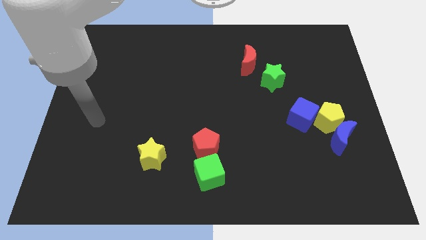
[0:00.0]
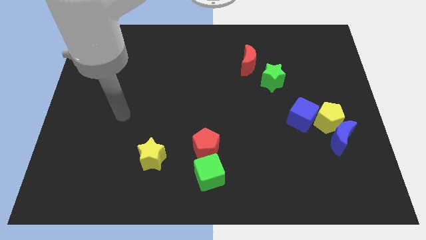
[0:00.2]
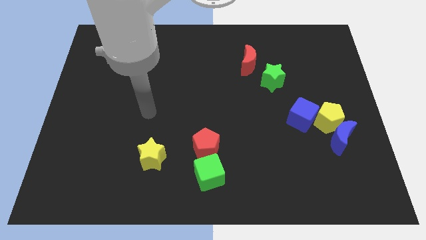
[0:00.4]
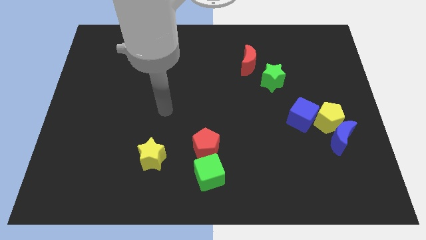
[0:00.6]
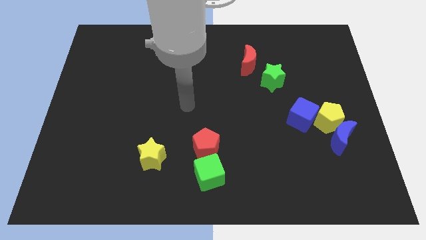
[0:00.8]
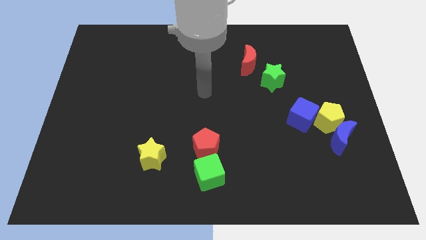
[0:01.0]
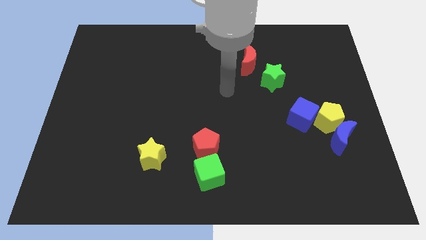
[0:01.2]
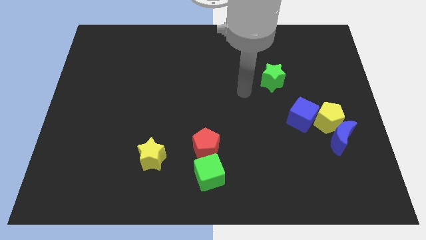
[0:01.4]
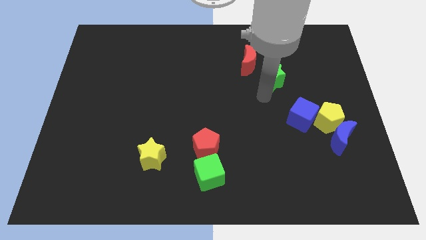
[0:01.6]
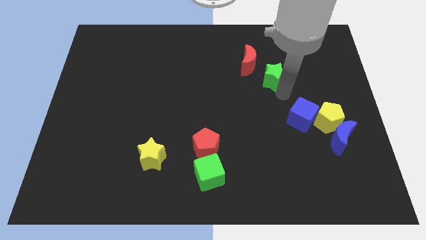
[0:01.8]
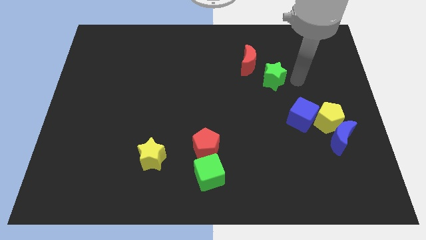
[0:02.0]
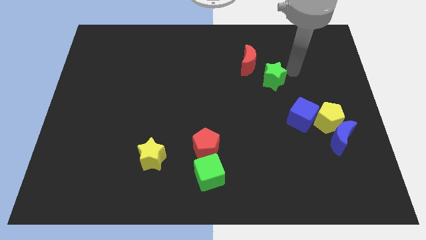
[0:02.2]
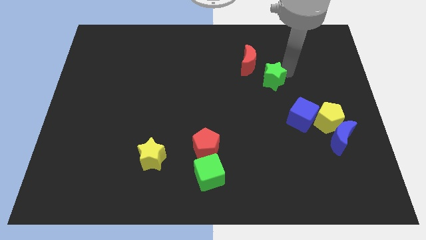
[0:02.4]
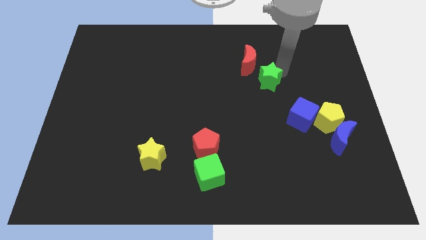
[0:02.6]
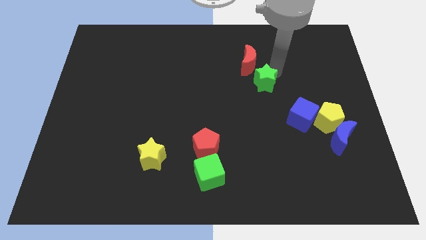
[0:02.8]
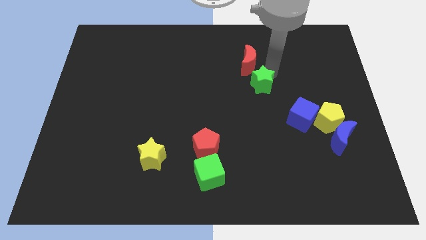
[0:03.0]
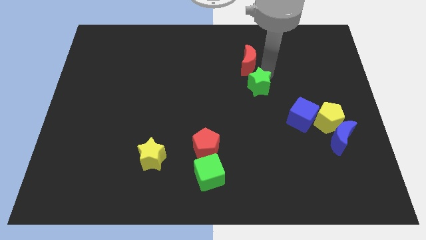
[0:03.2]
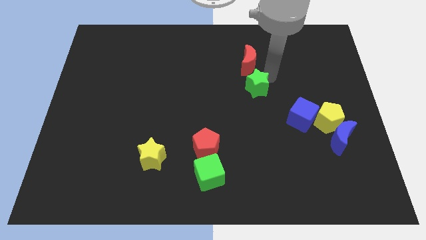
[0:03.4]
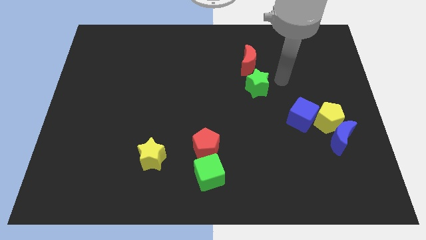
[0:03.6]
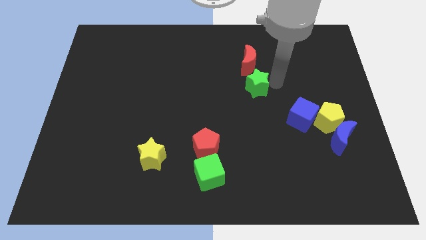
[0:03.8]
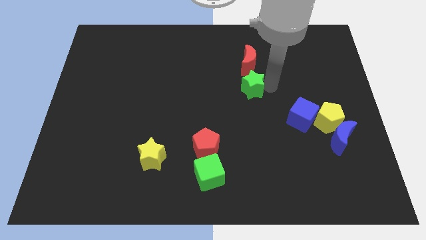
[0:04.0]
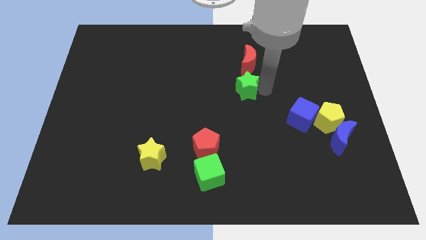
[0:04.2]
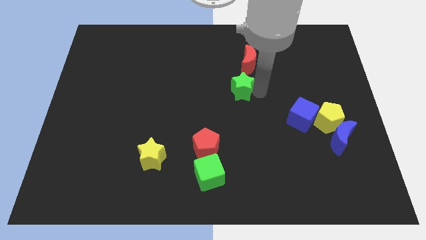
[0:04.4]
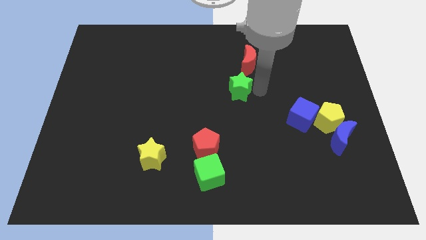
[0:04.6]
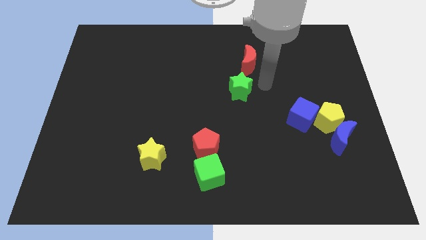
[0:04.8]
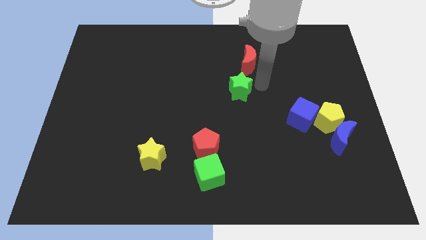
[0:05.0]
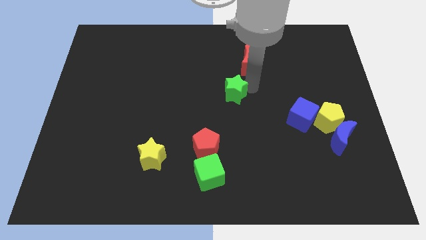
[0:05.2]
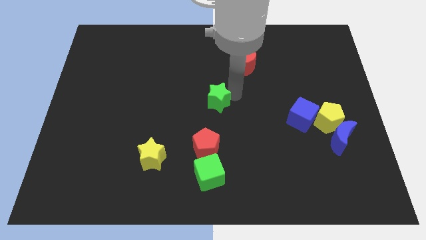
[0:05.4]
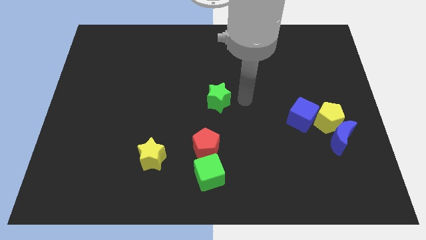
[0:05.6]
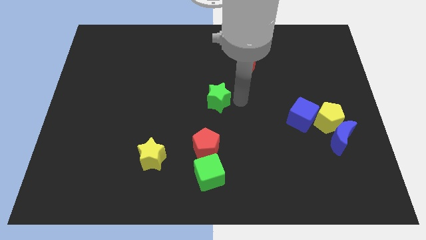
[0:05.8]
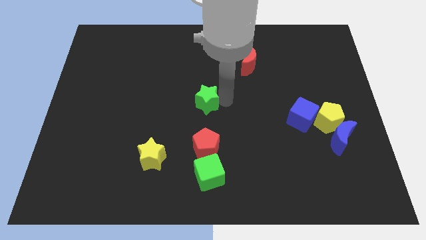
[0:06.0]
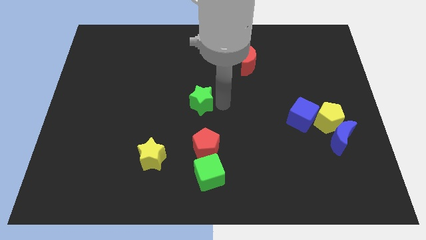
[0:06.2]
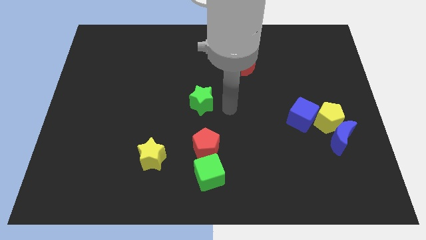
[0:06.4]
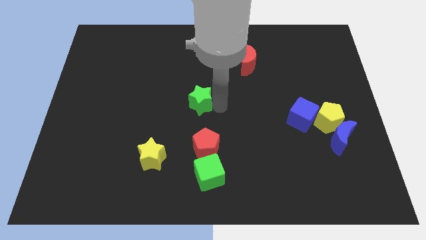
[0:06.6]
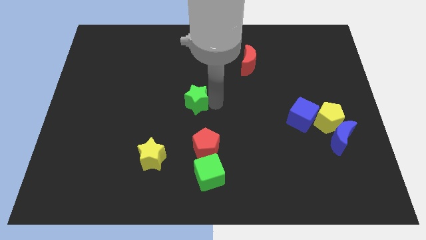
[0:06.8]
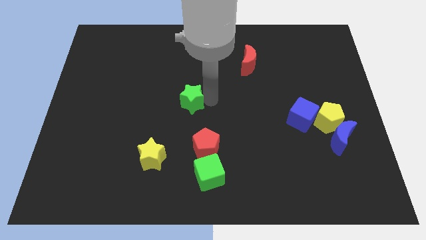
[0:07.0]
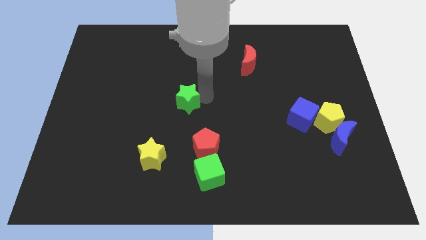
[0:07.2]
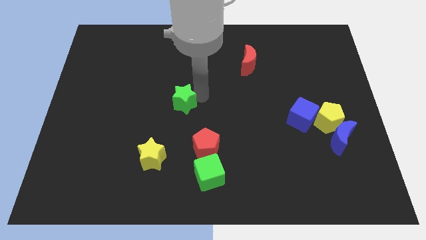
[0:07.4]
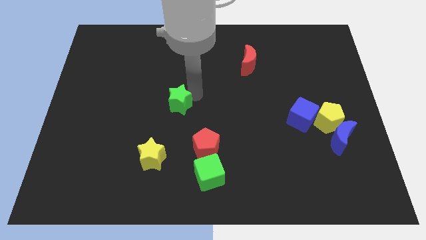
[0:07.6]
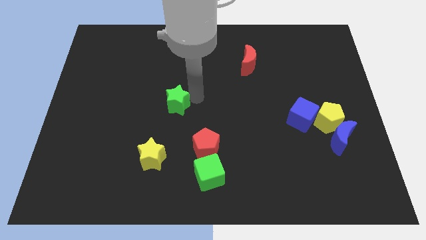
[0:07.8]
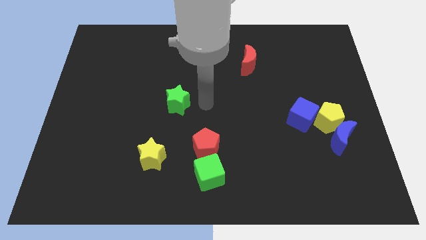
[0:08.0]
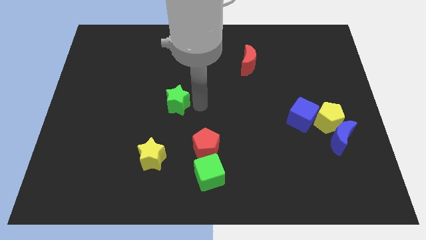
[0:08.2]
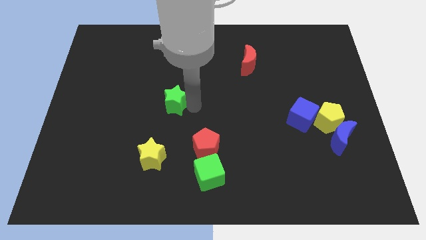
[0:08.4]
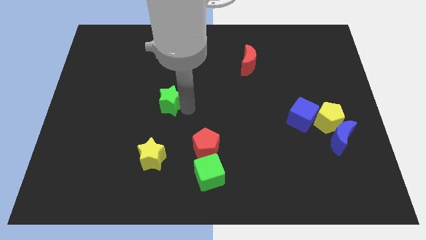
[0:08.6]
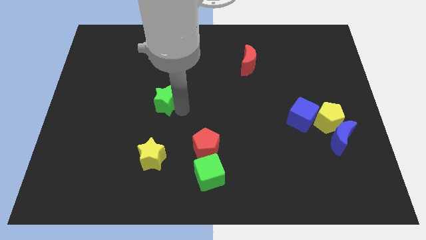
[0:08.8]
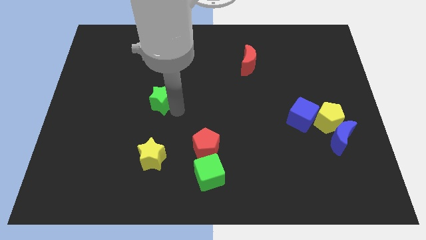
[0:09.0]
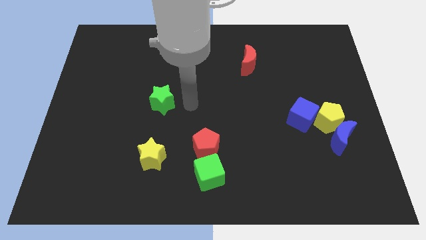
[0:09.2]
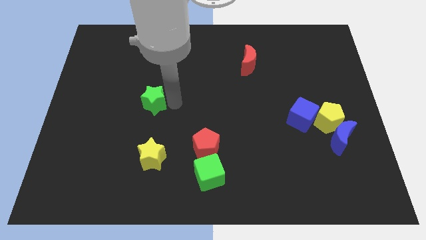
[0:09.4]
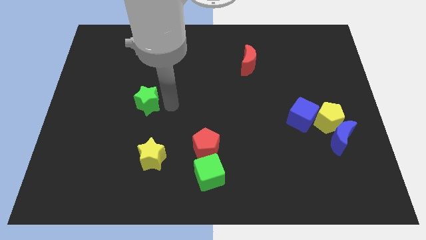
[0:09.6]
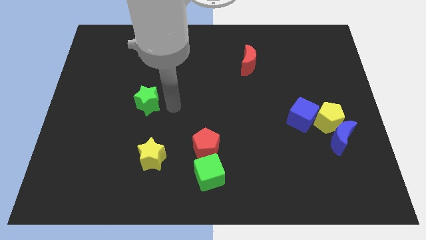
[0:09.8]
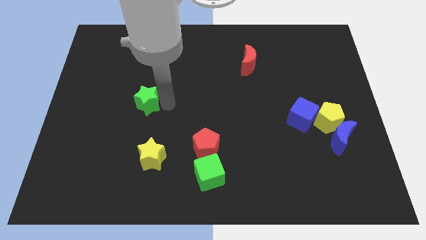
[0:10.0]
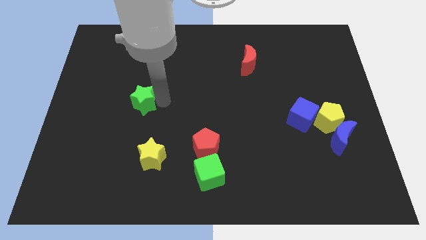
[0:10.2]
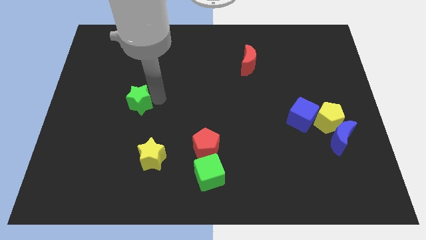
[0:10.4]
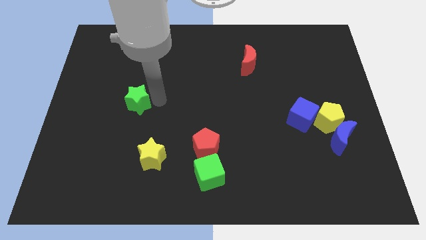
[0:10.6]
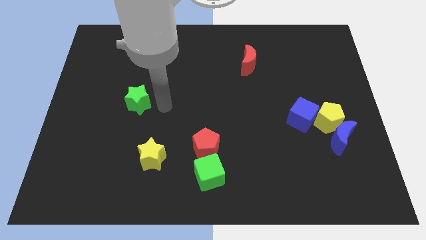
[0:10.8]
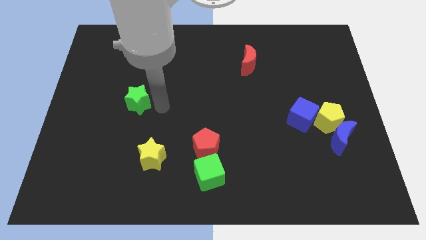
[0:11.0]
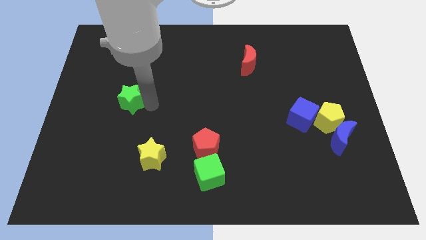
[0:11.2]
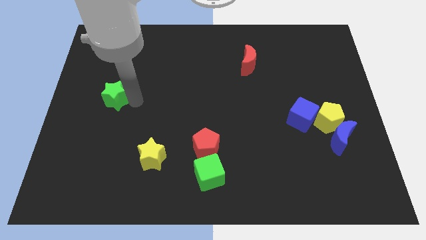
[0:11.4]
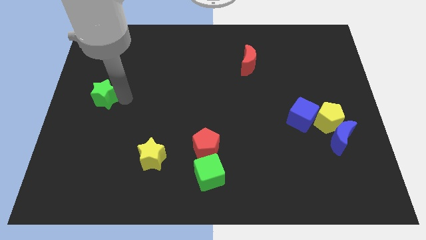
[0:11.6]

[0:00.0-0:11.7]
push the green star to the center left

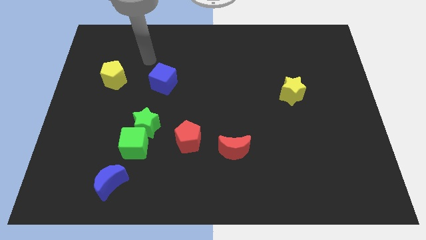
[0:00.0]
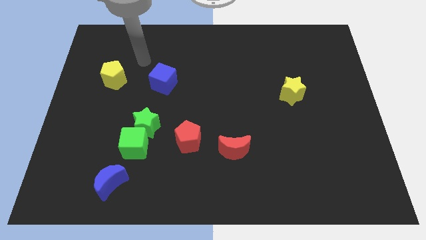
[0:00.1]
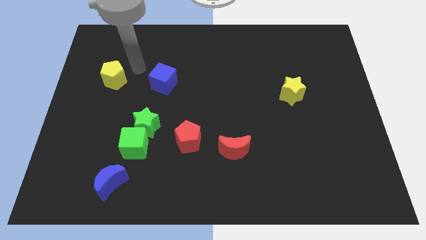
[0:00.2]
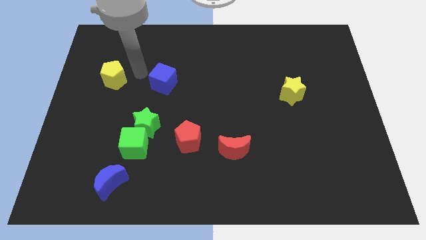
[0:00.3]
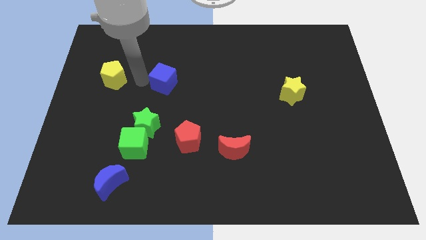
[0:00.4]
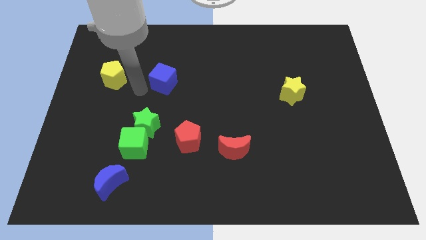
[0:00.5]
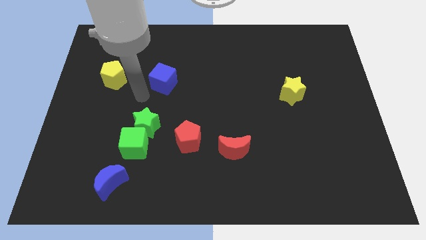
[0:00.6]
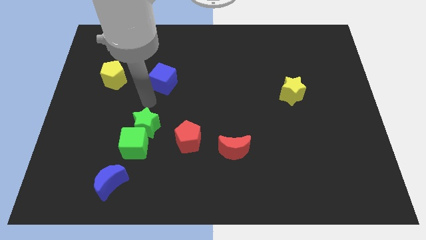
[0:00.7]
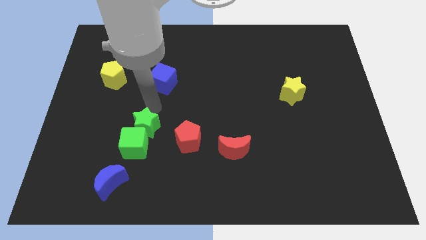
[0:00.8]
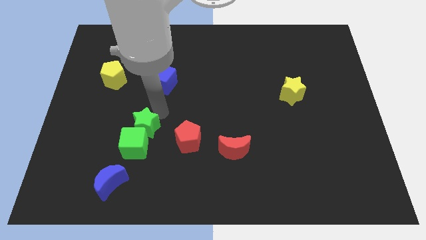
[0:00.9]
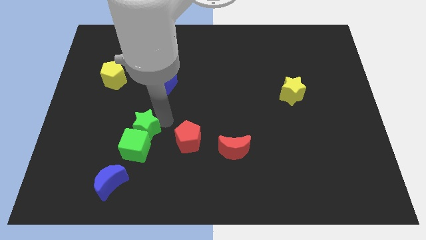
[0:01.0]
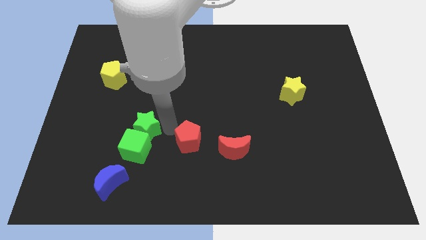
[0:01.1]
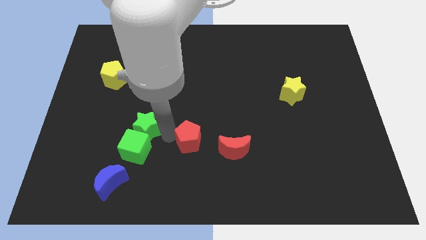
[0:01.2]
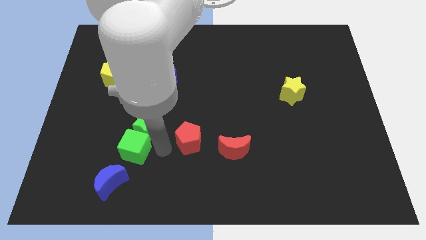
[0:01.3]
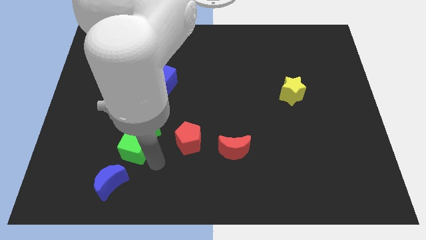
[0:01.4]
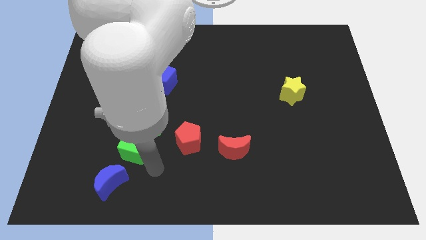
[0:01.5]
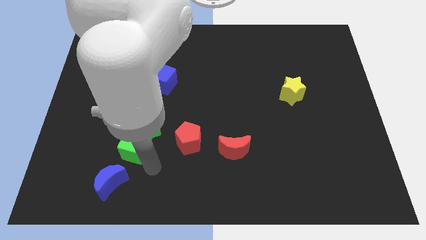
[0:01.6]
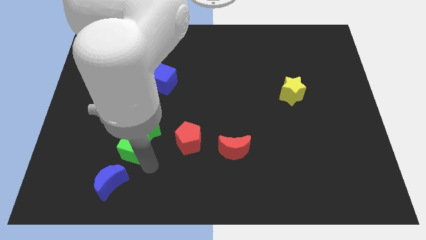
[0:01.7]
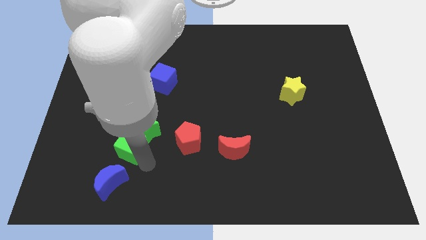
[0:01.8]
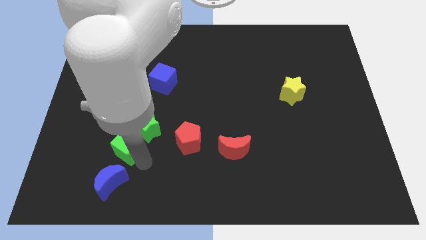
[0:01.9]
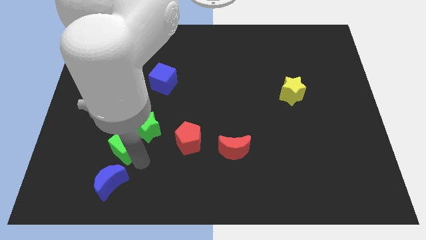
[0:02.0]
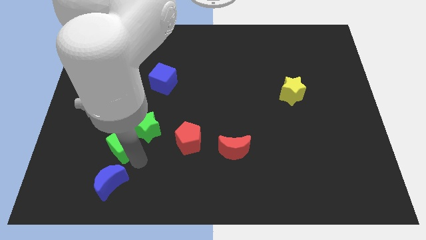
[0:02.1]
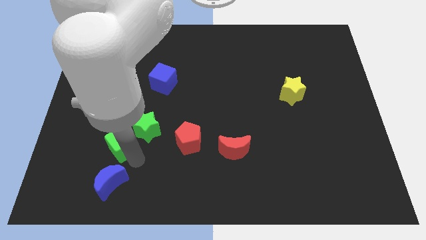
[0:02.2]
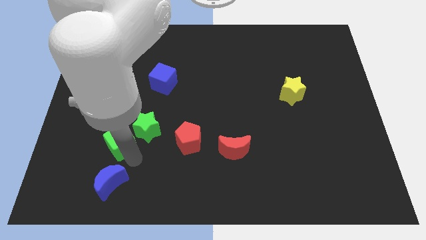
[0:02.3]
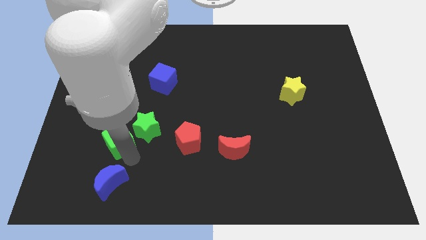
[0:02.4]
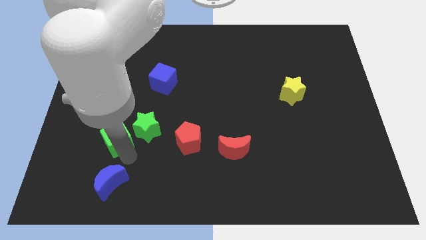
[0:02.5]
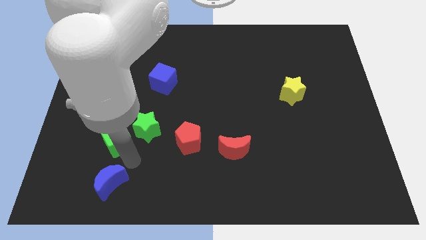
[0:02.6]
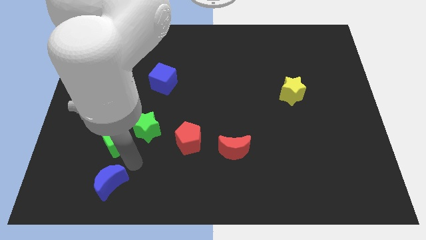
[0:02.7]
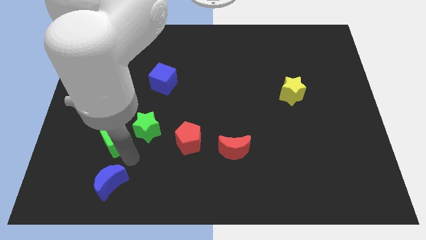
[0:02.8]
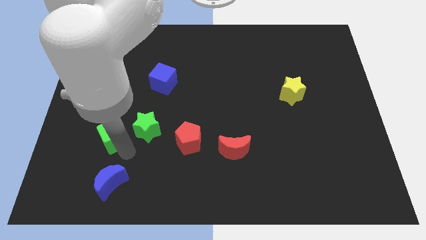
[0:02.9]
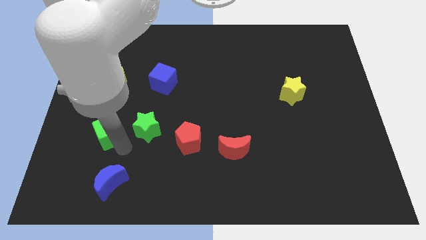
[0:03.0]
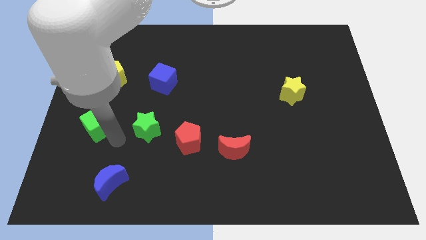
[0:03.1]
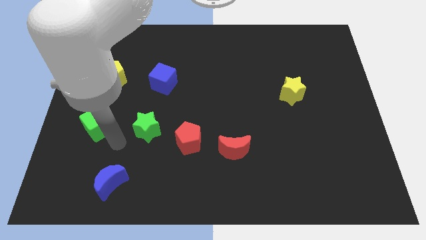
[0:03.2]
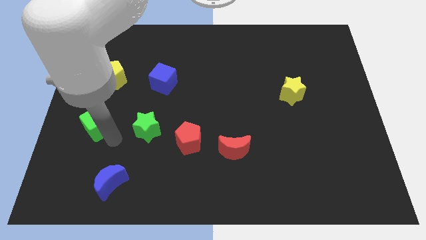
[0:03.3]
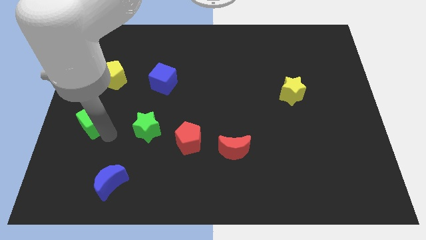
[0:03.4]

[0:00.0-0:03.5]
move the green cube to the left side
